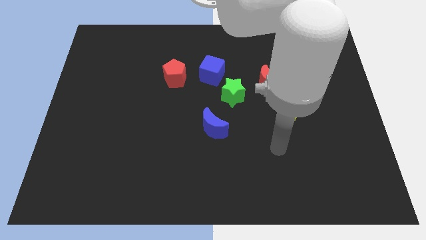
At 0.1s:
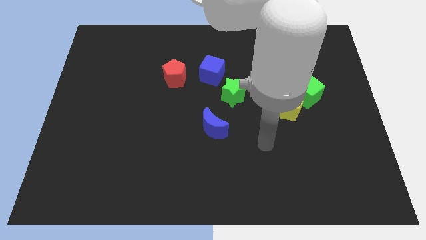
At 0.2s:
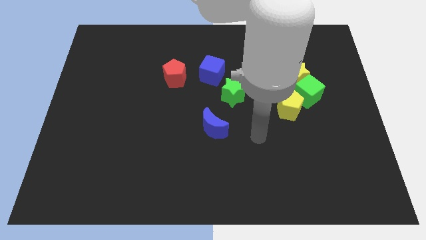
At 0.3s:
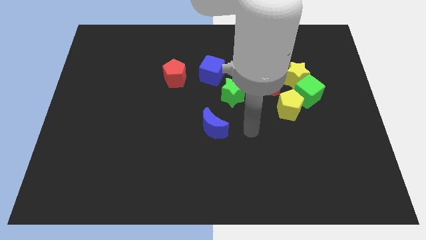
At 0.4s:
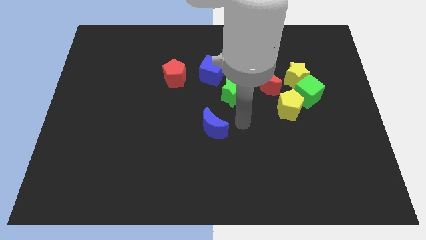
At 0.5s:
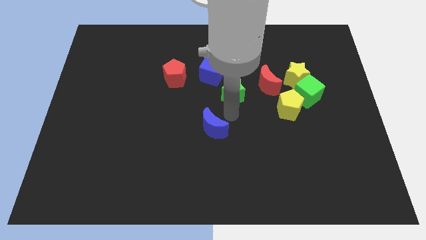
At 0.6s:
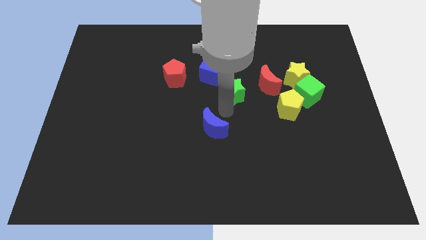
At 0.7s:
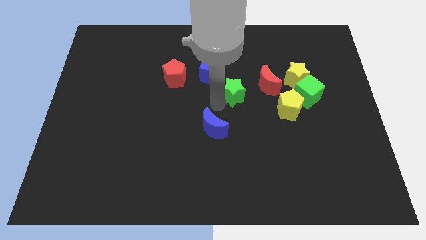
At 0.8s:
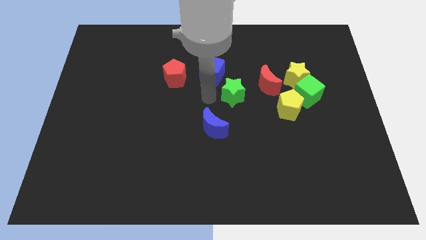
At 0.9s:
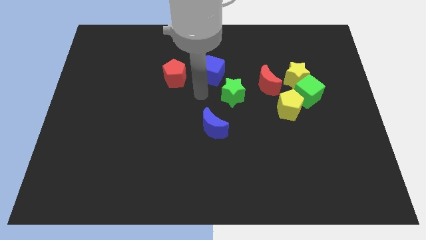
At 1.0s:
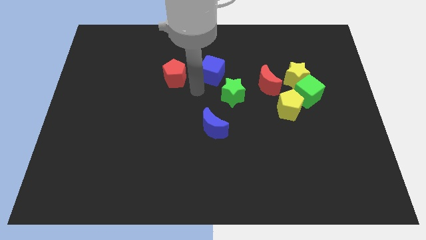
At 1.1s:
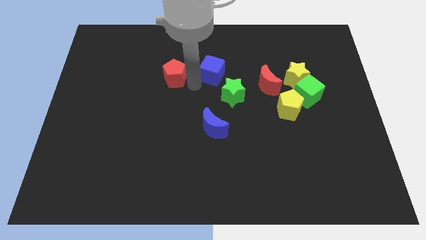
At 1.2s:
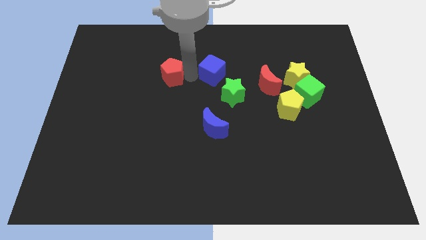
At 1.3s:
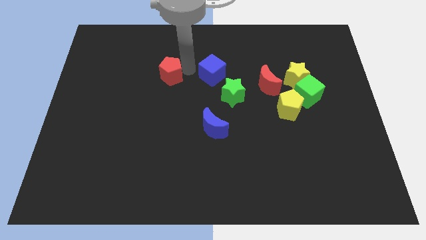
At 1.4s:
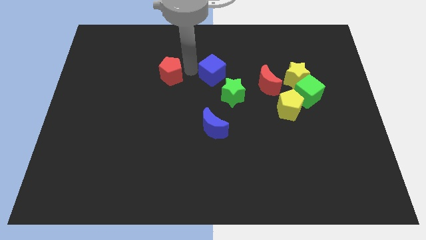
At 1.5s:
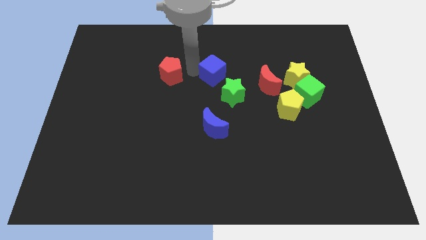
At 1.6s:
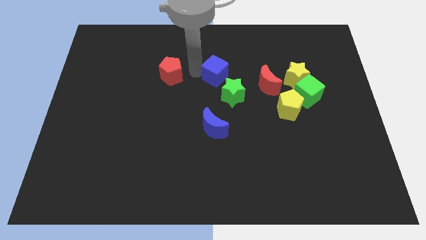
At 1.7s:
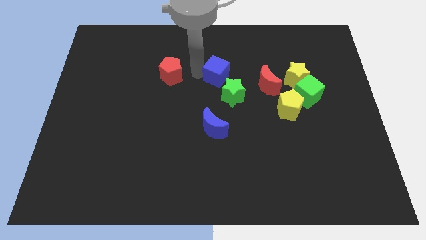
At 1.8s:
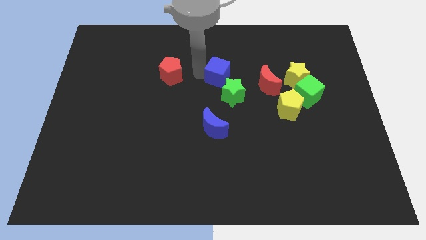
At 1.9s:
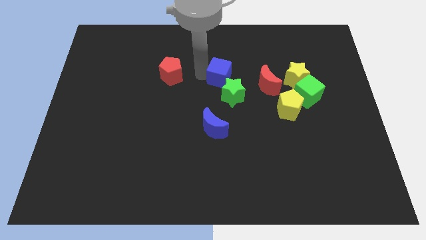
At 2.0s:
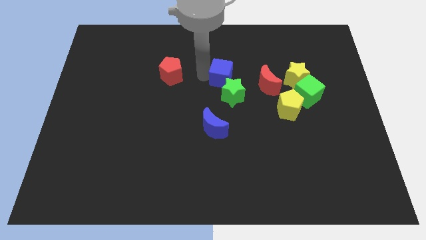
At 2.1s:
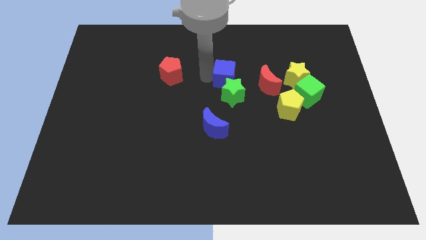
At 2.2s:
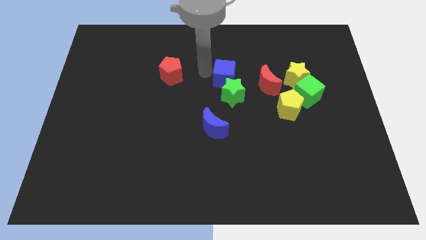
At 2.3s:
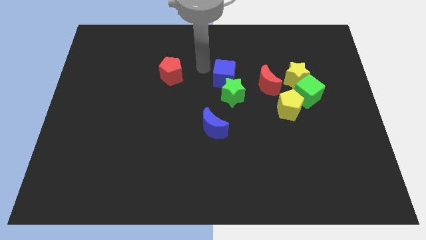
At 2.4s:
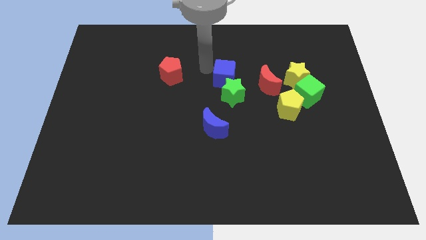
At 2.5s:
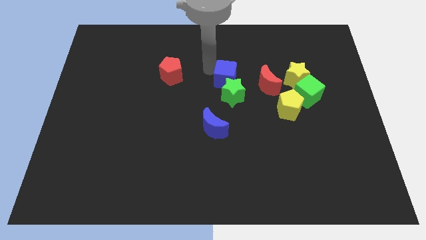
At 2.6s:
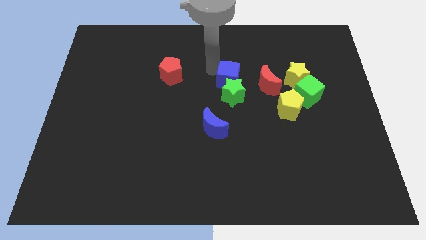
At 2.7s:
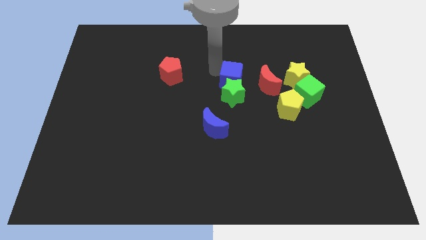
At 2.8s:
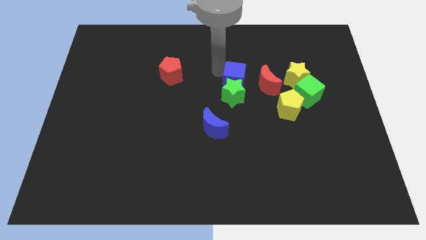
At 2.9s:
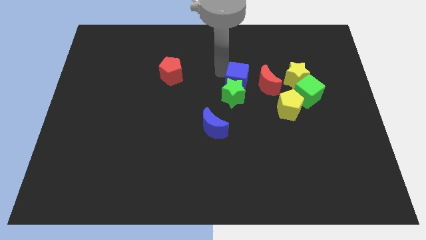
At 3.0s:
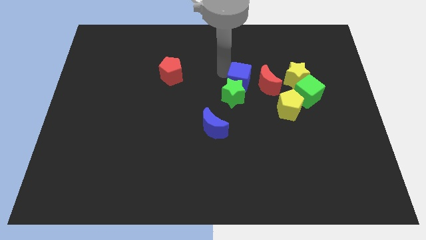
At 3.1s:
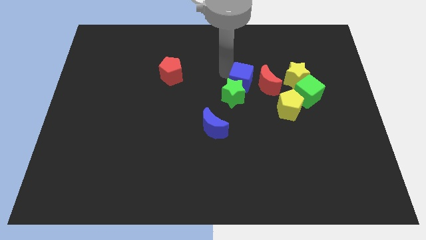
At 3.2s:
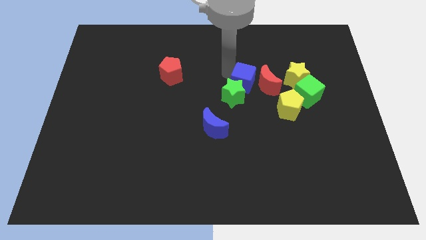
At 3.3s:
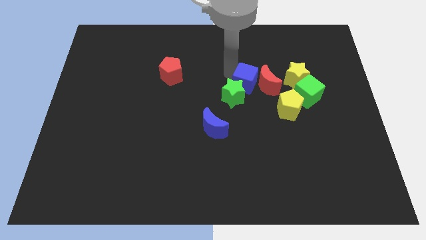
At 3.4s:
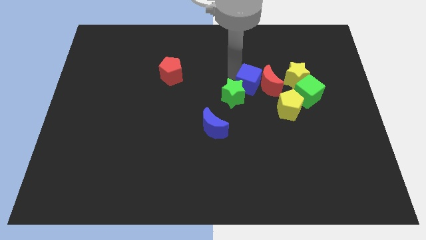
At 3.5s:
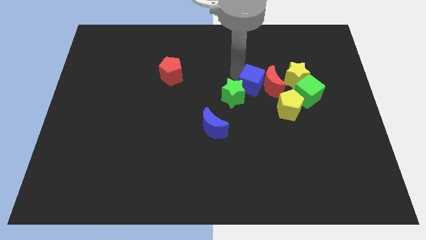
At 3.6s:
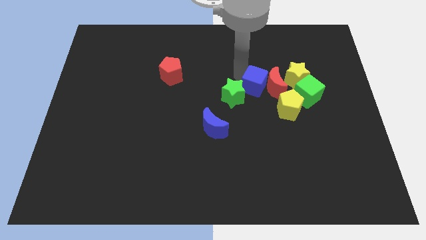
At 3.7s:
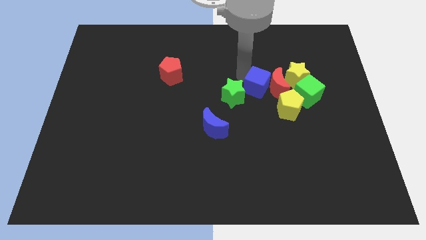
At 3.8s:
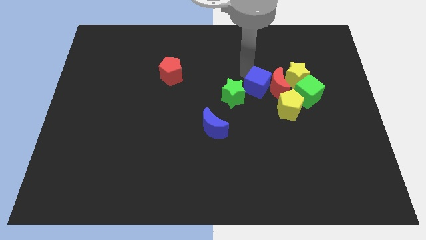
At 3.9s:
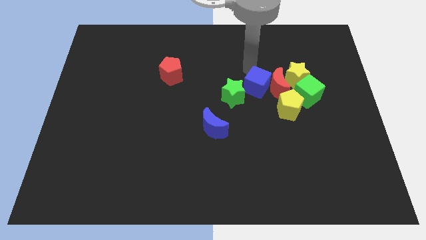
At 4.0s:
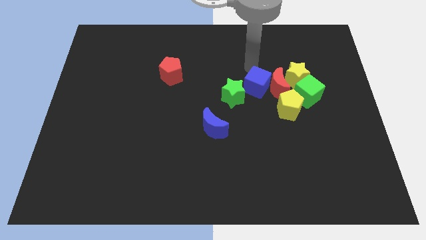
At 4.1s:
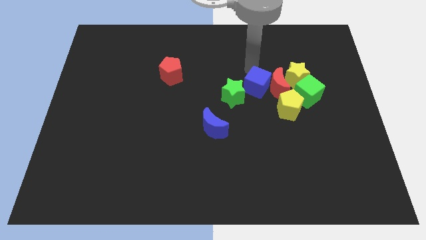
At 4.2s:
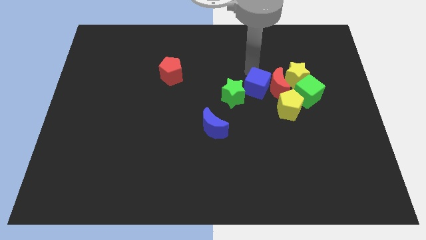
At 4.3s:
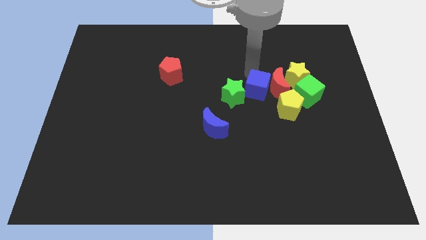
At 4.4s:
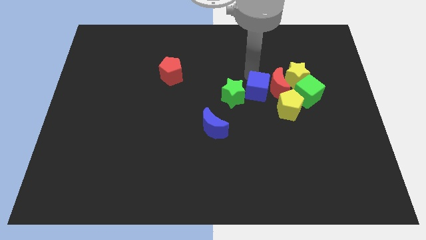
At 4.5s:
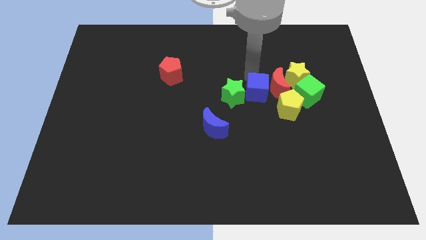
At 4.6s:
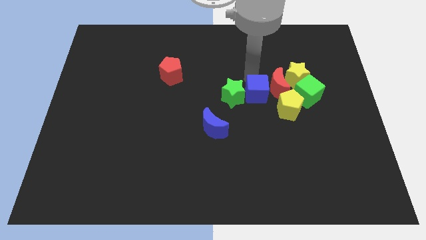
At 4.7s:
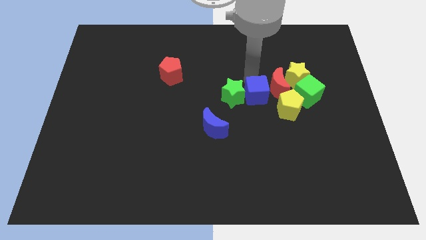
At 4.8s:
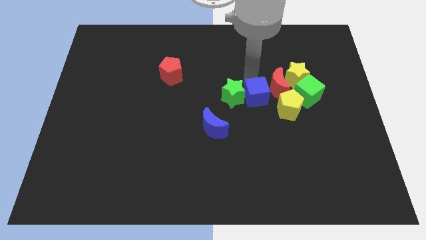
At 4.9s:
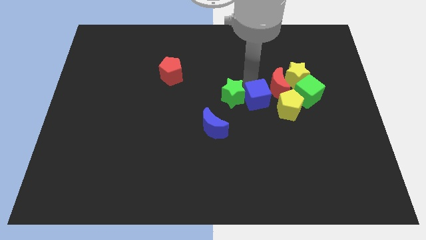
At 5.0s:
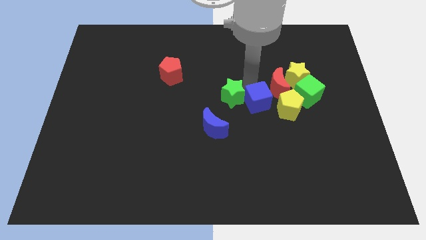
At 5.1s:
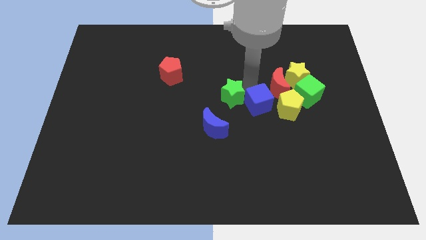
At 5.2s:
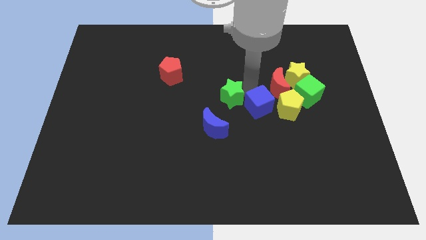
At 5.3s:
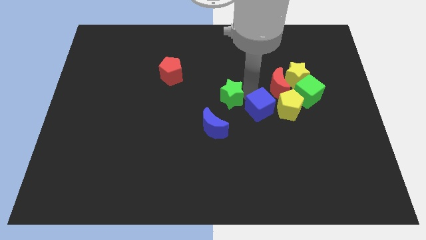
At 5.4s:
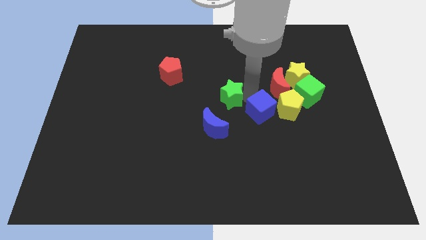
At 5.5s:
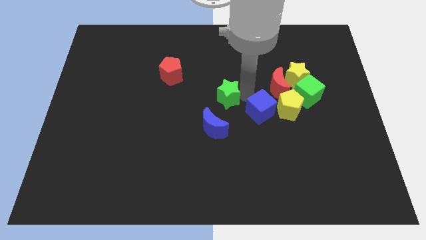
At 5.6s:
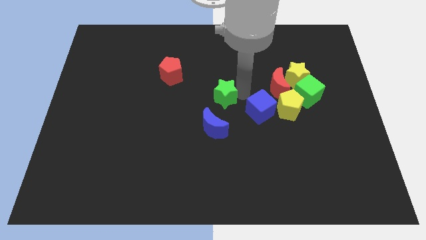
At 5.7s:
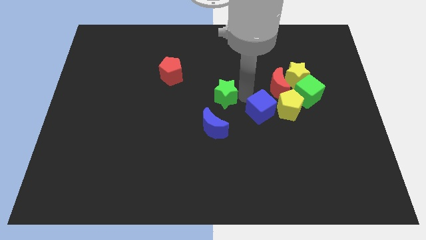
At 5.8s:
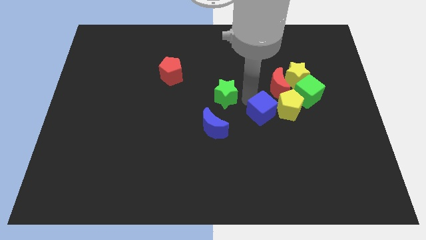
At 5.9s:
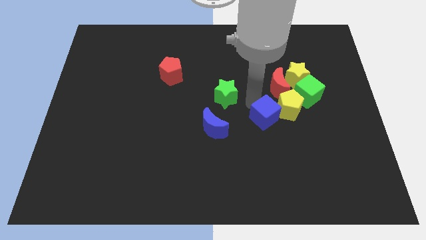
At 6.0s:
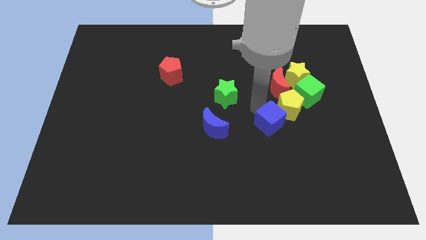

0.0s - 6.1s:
put the blue cube below the yellow pentagon

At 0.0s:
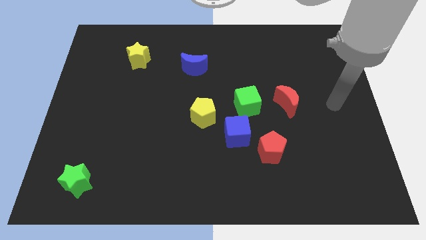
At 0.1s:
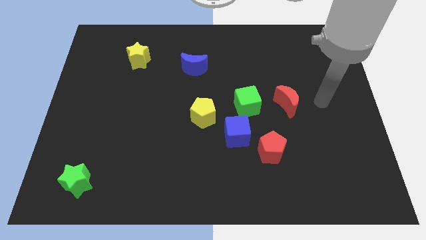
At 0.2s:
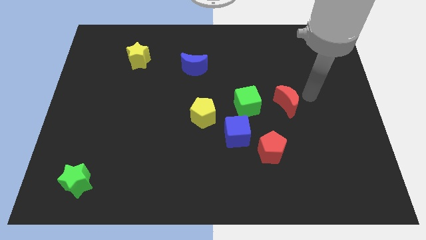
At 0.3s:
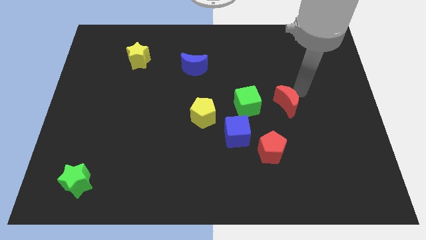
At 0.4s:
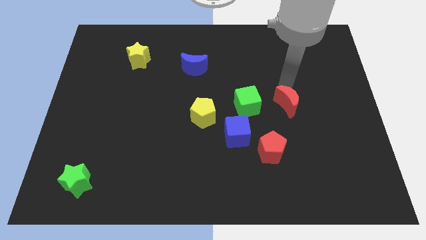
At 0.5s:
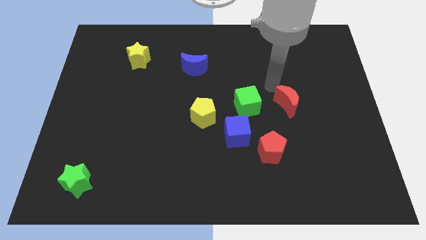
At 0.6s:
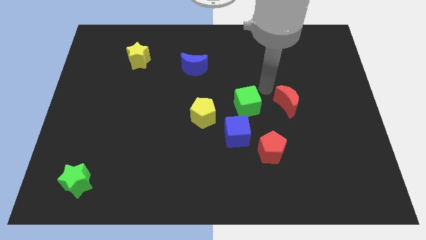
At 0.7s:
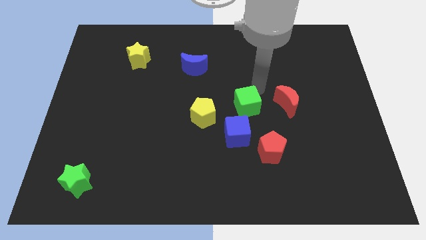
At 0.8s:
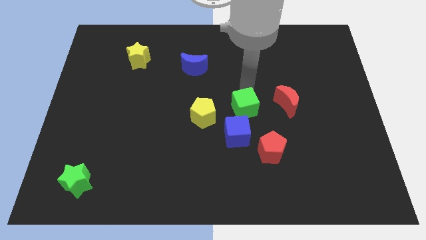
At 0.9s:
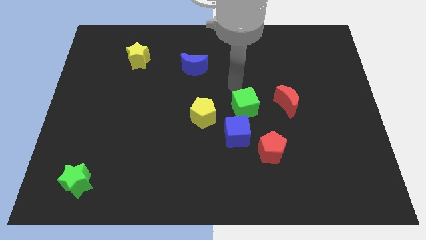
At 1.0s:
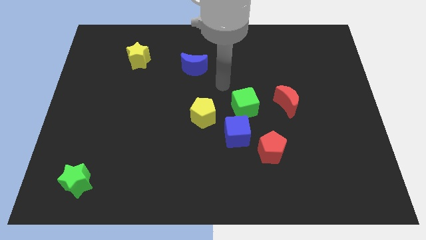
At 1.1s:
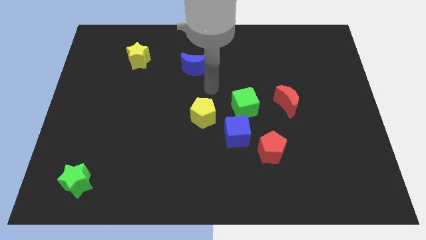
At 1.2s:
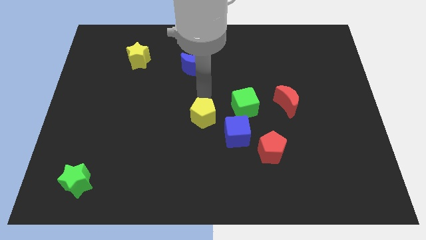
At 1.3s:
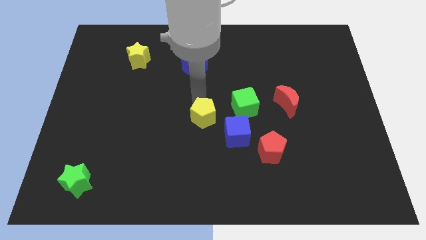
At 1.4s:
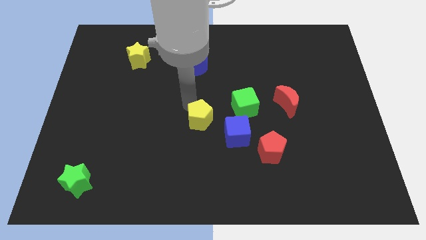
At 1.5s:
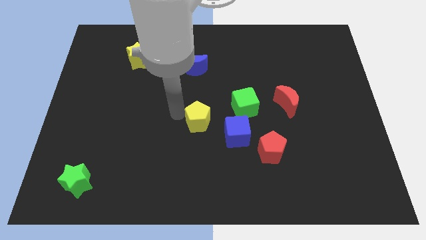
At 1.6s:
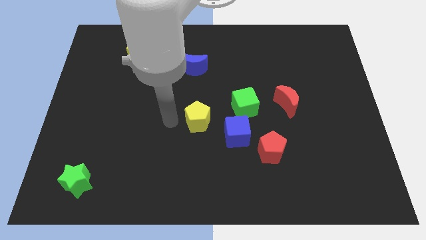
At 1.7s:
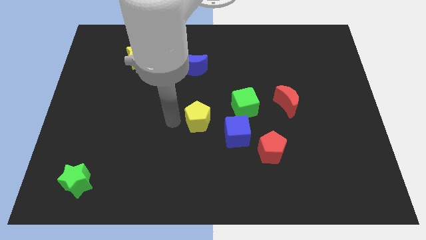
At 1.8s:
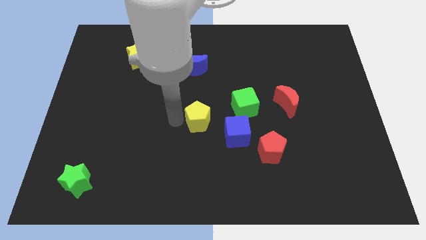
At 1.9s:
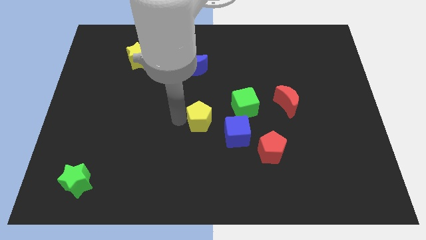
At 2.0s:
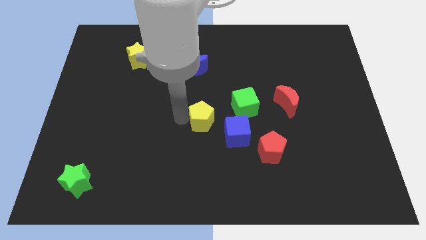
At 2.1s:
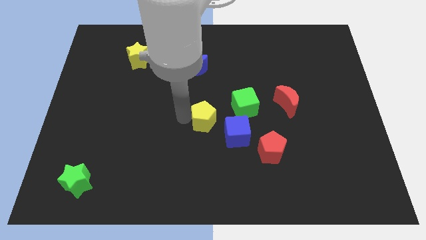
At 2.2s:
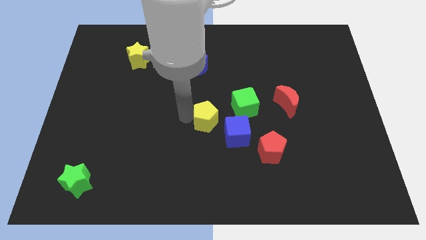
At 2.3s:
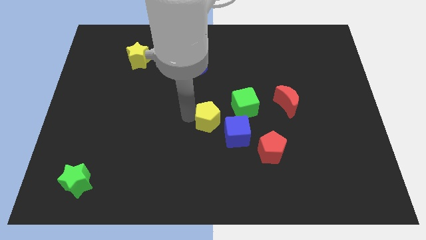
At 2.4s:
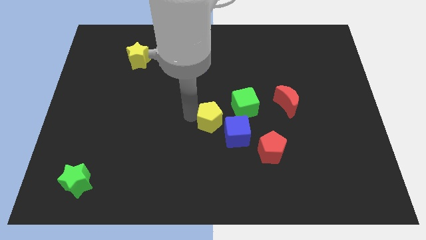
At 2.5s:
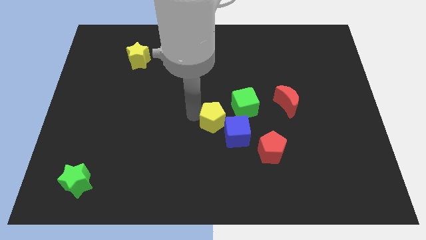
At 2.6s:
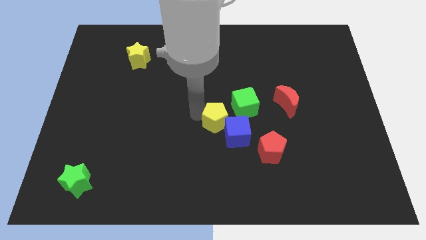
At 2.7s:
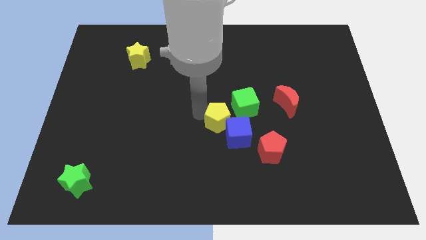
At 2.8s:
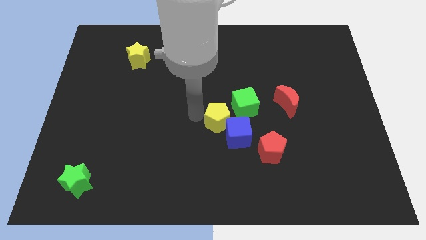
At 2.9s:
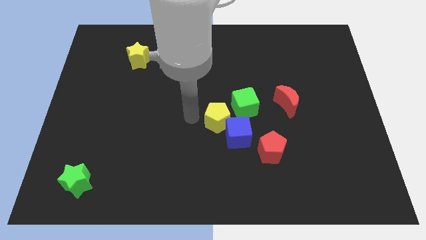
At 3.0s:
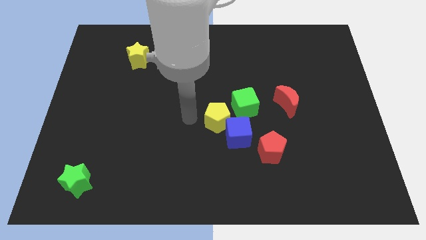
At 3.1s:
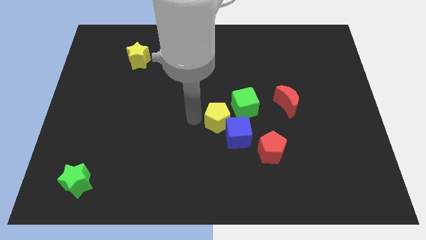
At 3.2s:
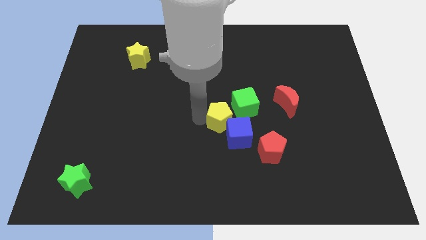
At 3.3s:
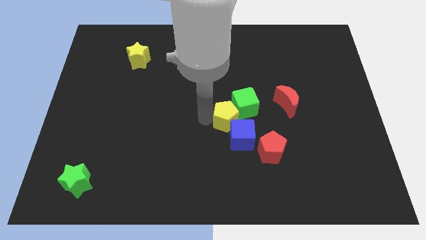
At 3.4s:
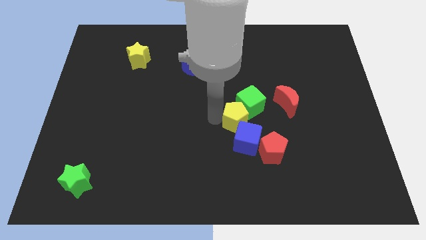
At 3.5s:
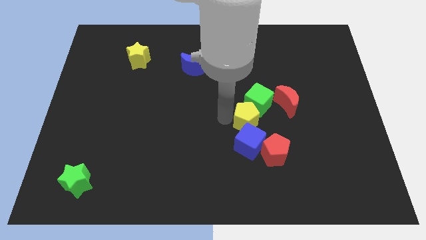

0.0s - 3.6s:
put the yellow pentagon to the top right side of the blue cube
